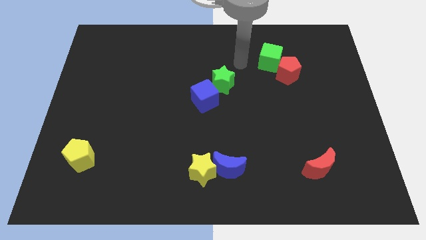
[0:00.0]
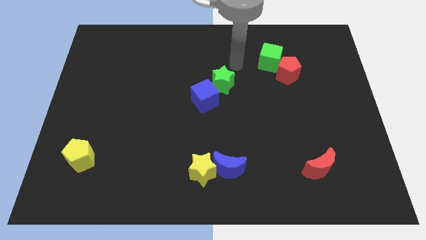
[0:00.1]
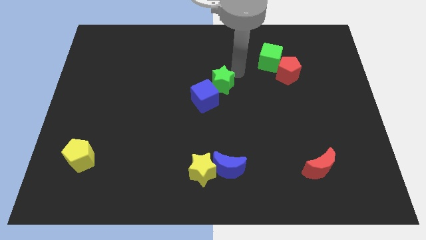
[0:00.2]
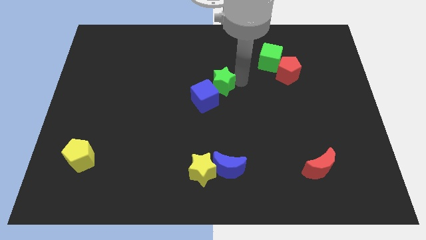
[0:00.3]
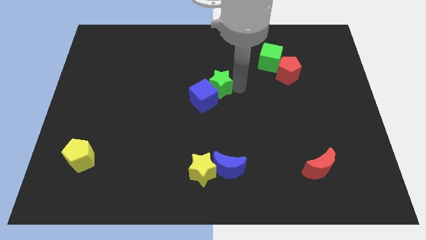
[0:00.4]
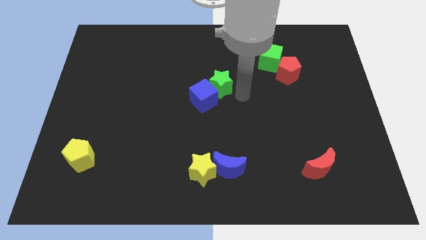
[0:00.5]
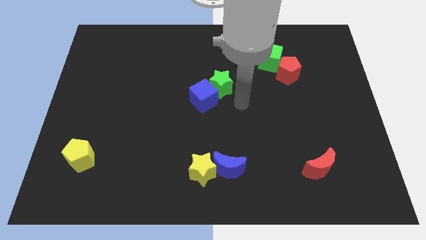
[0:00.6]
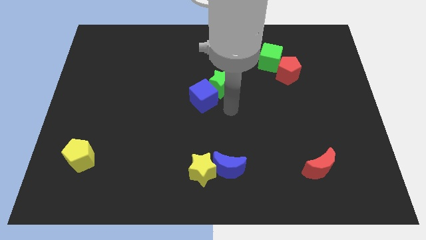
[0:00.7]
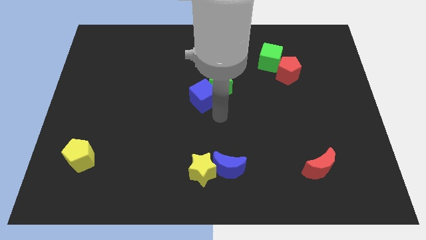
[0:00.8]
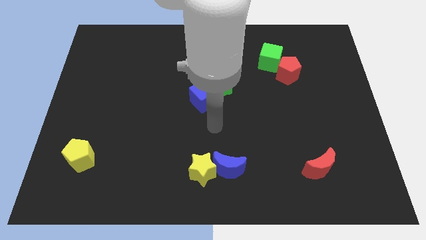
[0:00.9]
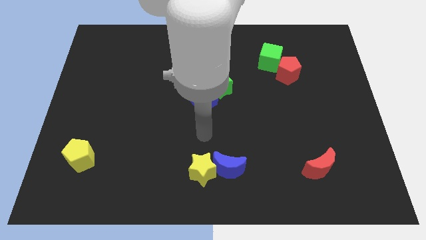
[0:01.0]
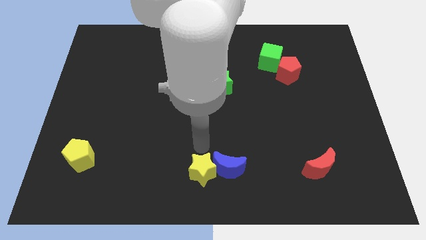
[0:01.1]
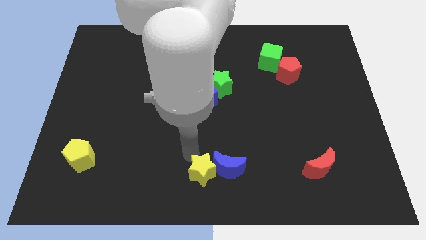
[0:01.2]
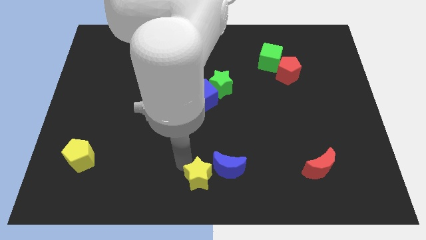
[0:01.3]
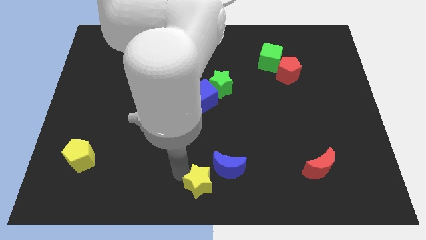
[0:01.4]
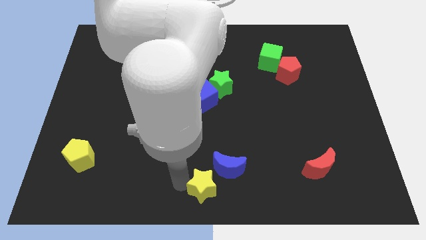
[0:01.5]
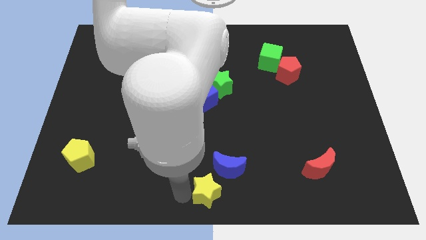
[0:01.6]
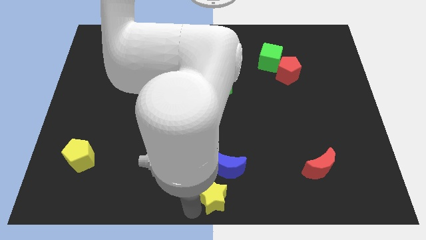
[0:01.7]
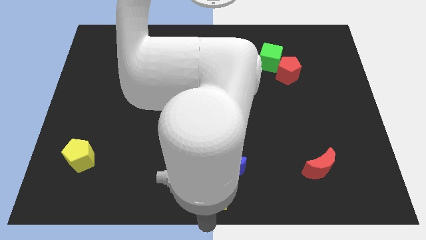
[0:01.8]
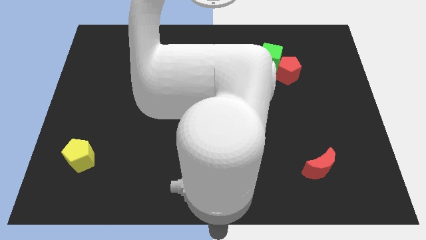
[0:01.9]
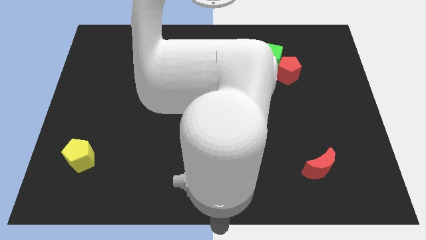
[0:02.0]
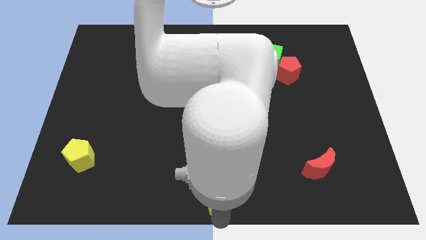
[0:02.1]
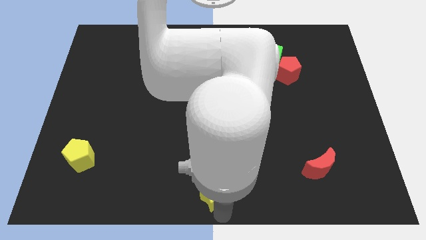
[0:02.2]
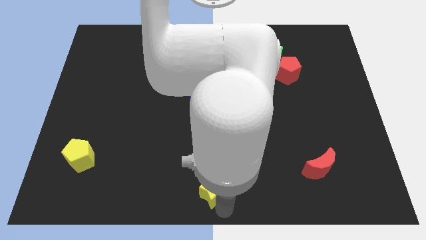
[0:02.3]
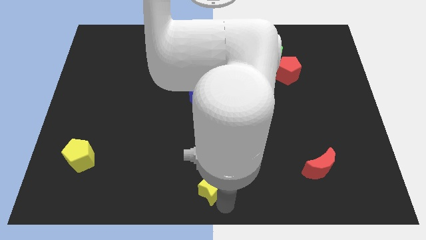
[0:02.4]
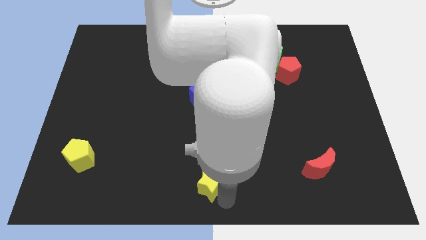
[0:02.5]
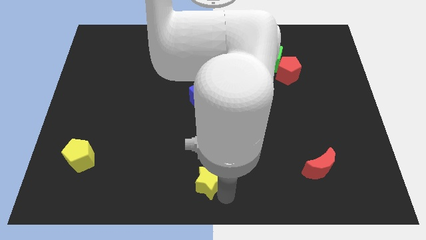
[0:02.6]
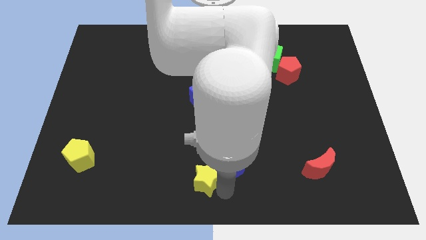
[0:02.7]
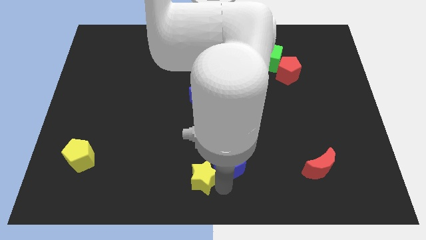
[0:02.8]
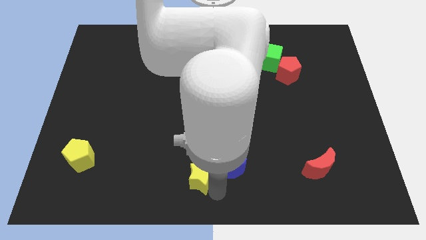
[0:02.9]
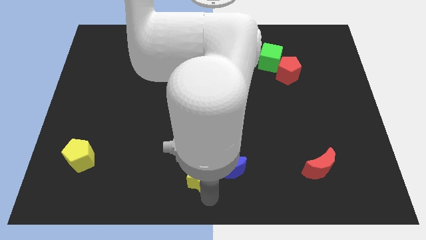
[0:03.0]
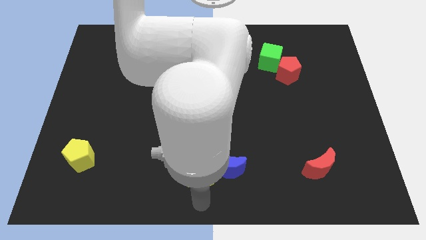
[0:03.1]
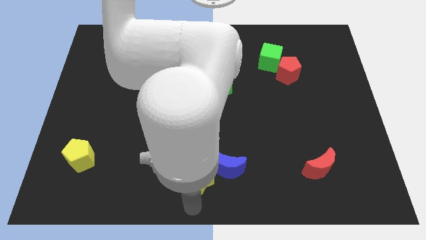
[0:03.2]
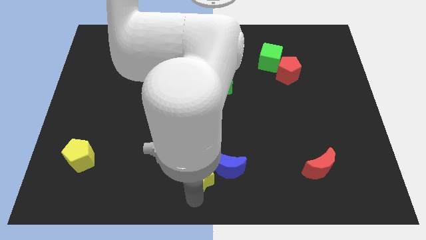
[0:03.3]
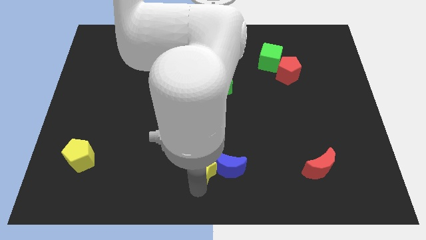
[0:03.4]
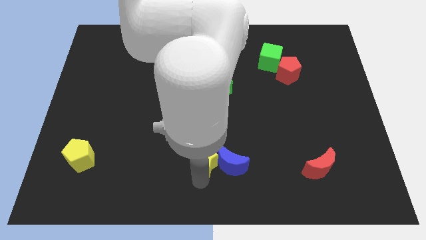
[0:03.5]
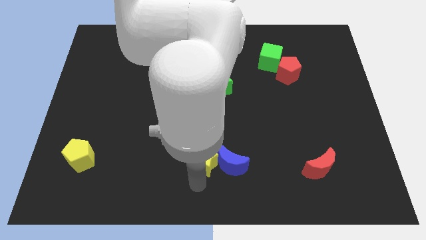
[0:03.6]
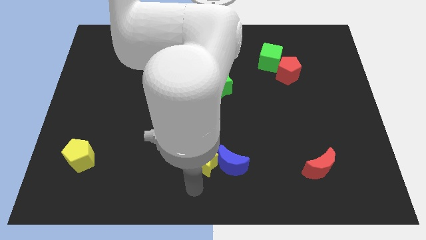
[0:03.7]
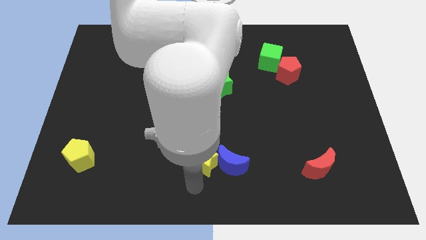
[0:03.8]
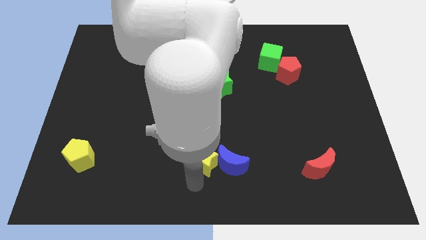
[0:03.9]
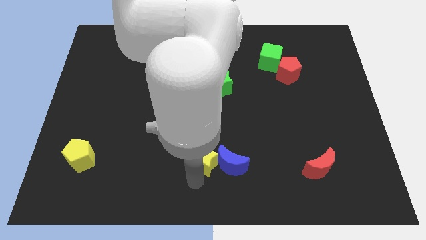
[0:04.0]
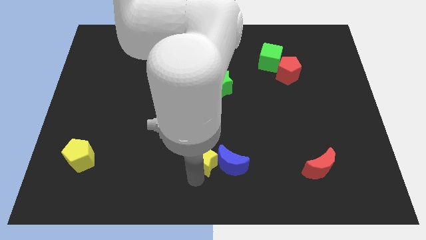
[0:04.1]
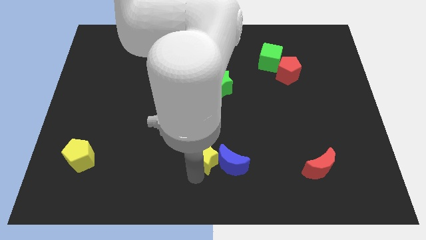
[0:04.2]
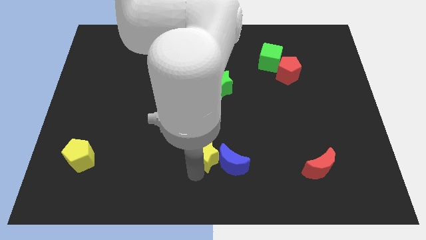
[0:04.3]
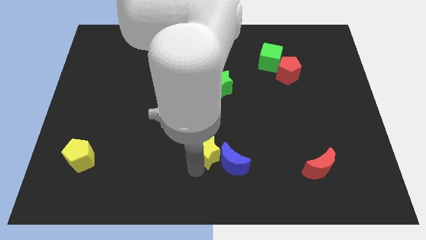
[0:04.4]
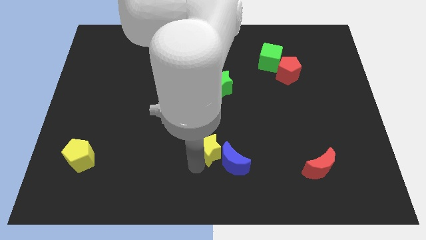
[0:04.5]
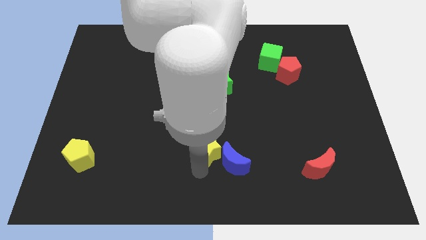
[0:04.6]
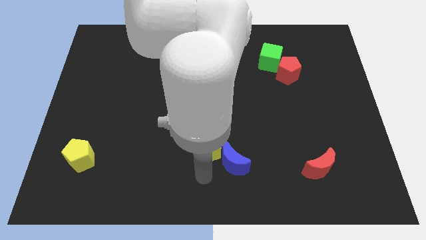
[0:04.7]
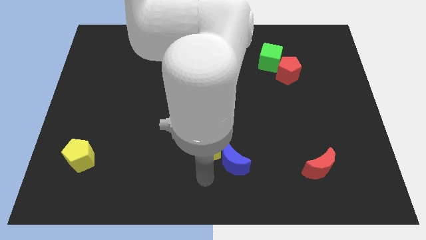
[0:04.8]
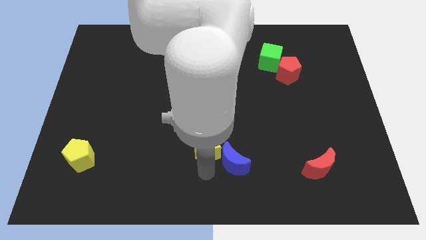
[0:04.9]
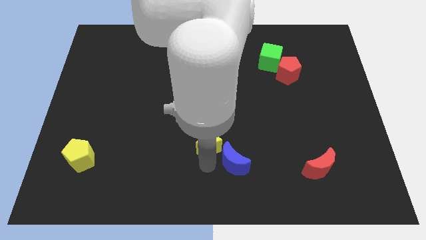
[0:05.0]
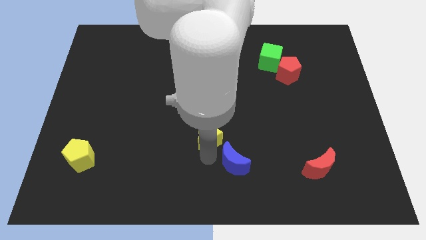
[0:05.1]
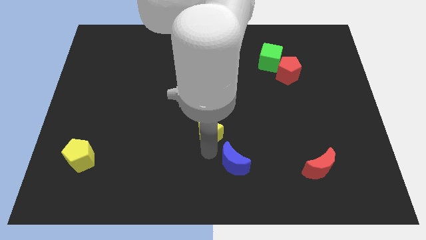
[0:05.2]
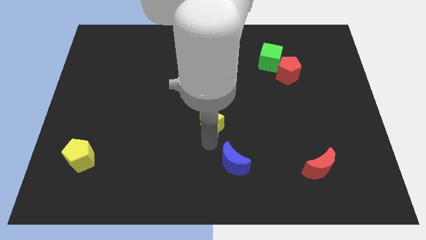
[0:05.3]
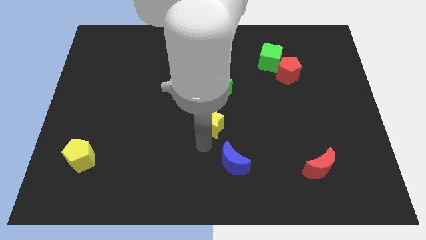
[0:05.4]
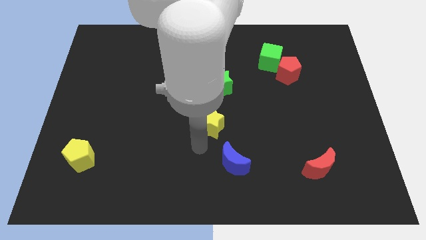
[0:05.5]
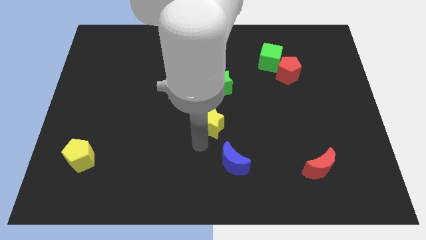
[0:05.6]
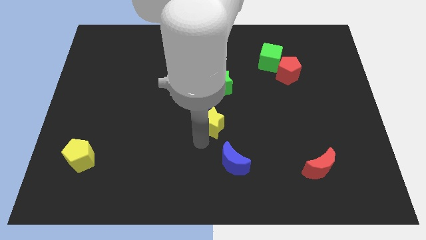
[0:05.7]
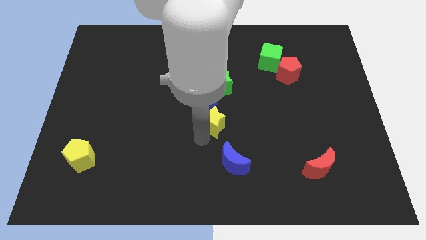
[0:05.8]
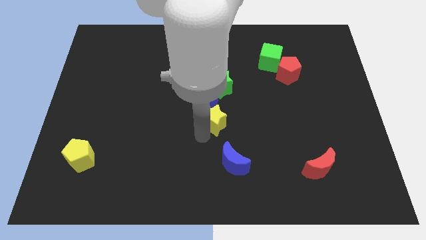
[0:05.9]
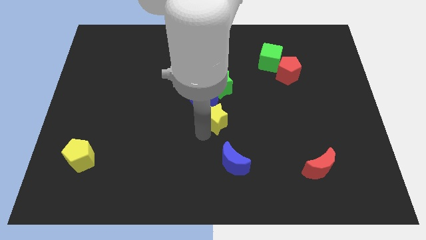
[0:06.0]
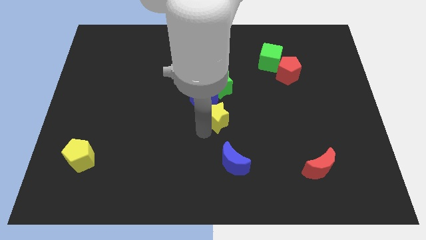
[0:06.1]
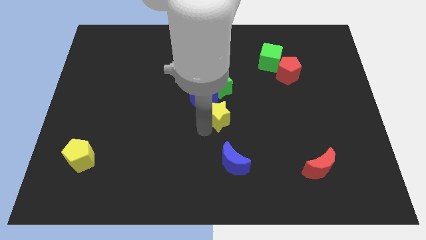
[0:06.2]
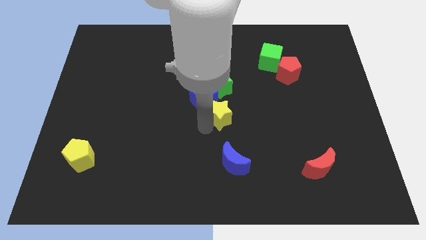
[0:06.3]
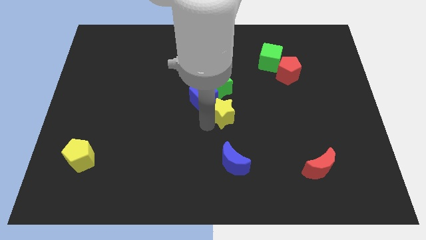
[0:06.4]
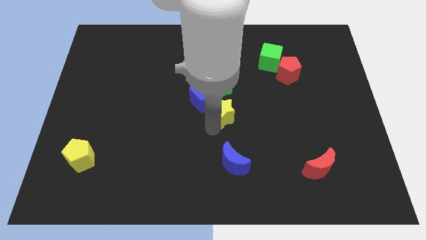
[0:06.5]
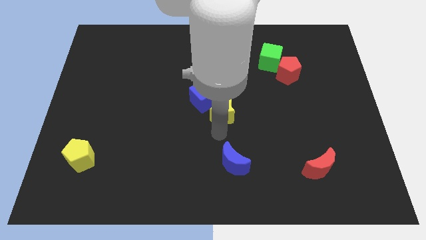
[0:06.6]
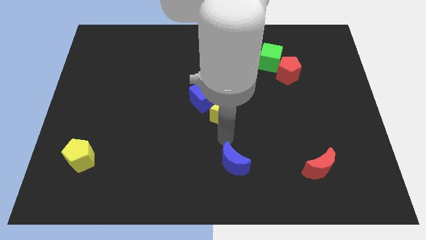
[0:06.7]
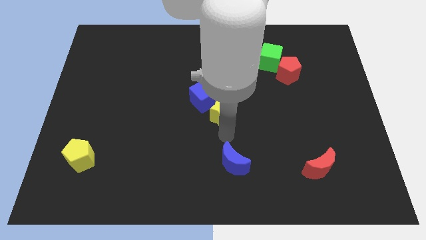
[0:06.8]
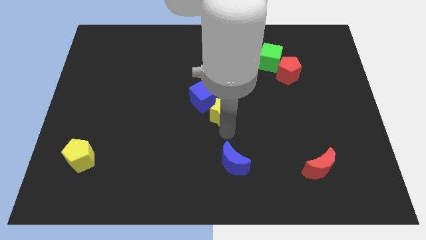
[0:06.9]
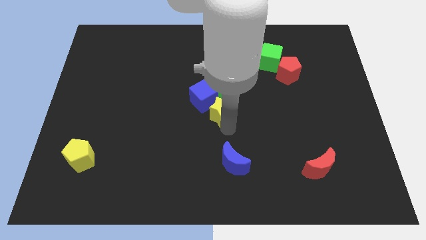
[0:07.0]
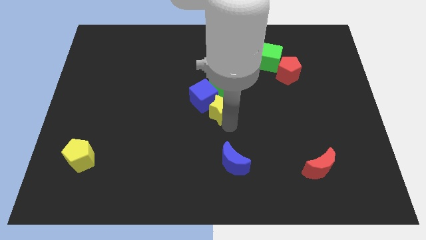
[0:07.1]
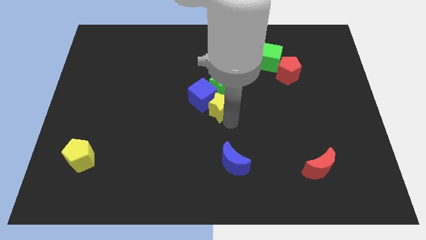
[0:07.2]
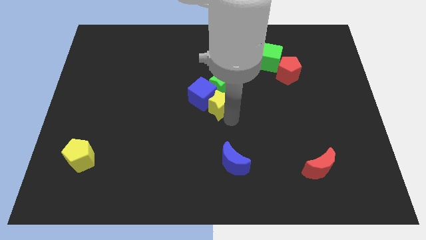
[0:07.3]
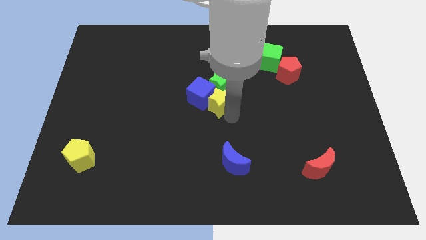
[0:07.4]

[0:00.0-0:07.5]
slide the yellow star towards the green star
